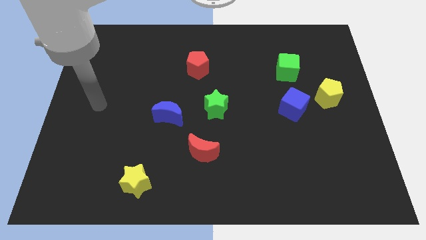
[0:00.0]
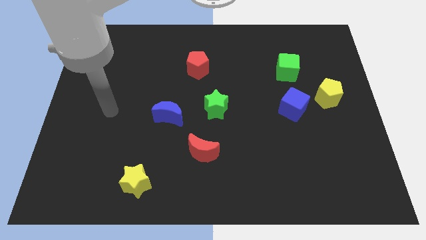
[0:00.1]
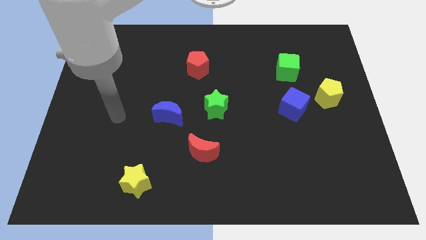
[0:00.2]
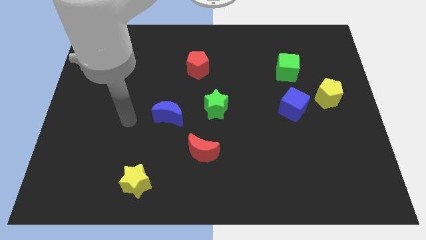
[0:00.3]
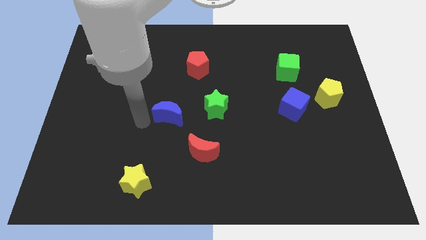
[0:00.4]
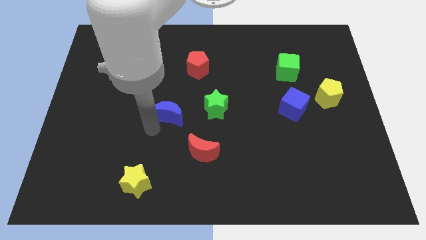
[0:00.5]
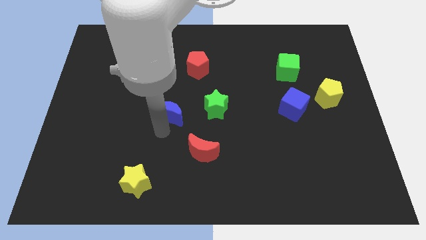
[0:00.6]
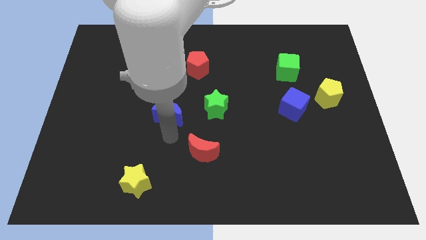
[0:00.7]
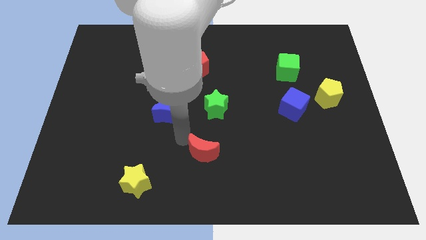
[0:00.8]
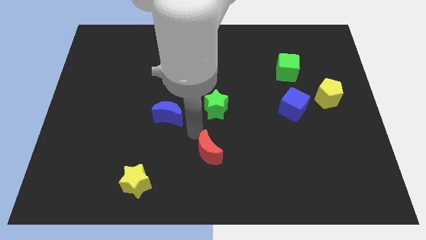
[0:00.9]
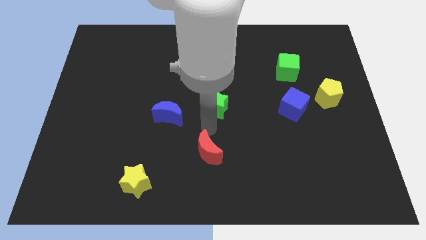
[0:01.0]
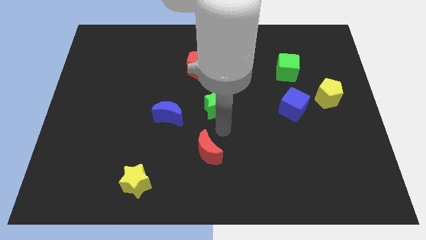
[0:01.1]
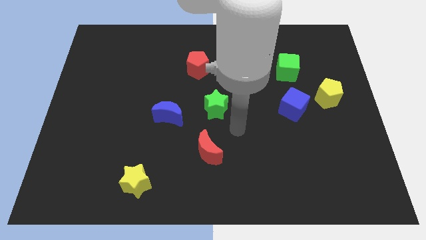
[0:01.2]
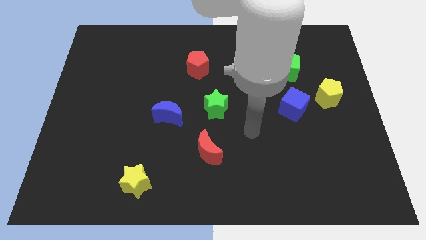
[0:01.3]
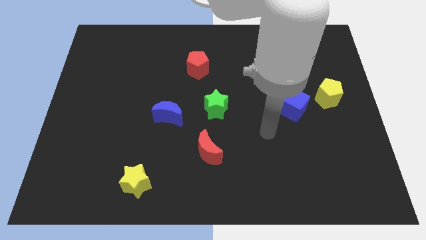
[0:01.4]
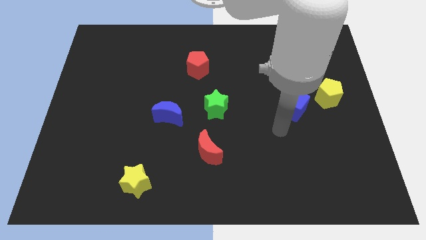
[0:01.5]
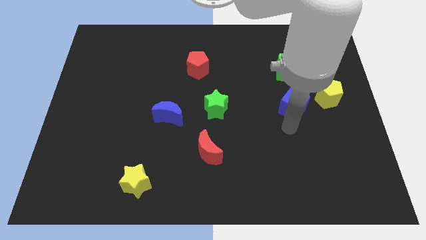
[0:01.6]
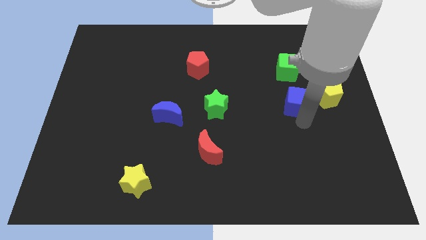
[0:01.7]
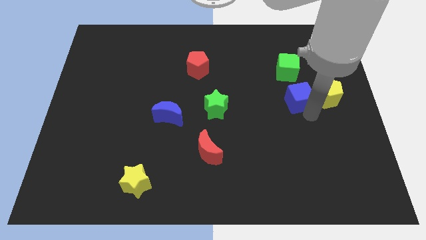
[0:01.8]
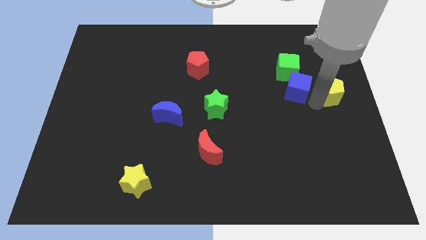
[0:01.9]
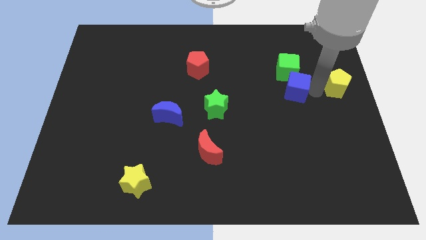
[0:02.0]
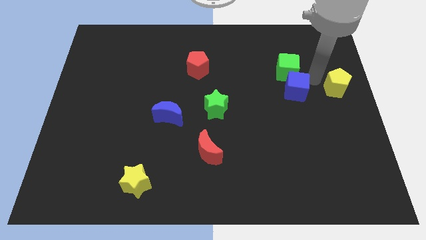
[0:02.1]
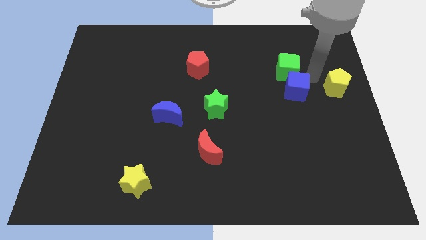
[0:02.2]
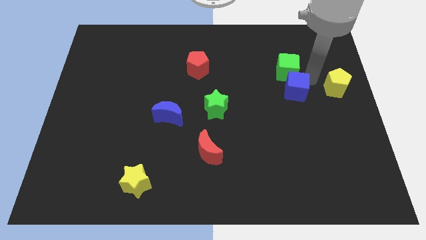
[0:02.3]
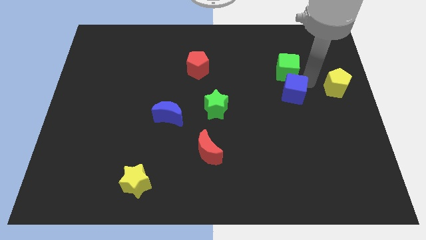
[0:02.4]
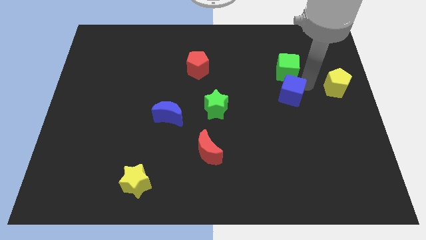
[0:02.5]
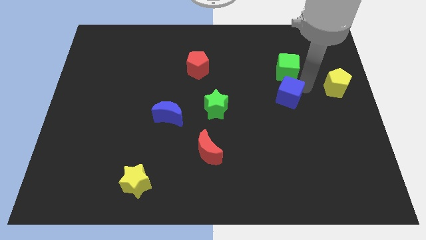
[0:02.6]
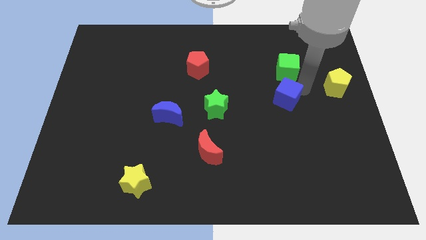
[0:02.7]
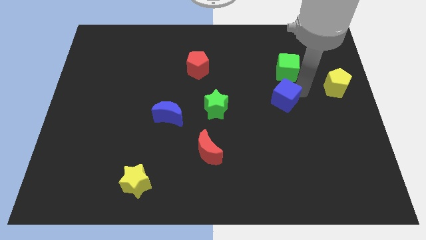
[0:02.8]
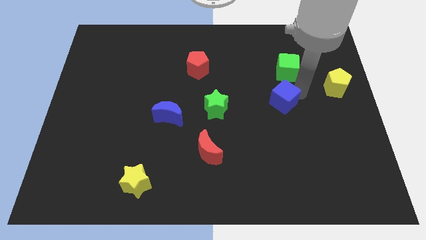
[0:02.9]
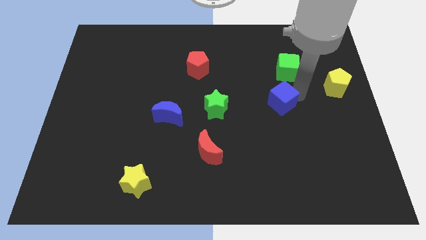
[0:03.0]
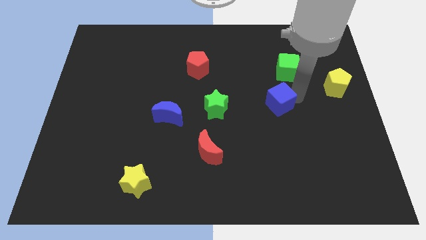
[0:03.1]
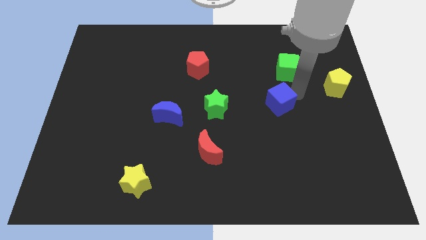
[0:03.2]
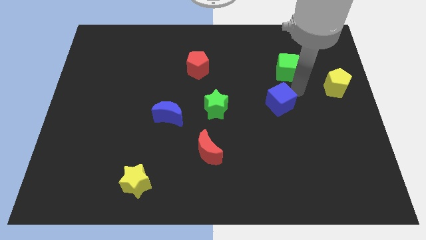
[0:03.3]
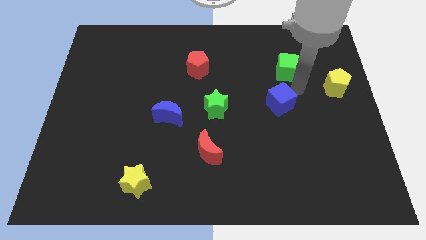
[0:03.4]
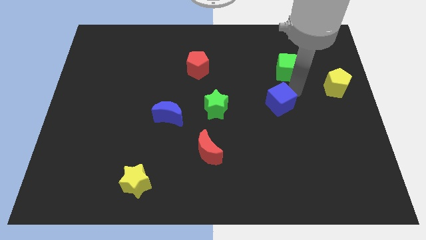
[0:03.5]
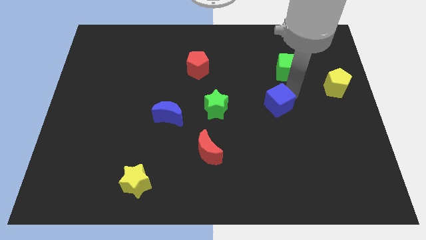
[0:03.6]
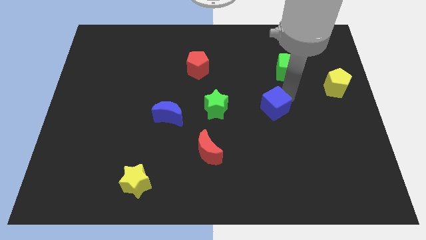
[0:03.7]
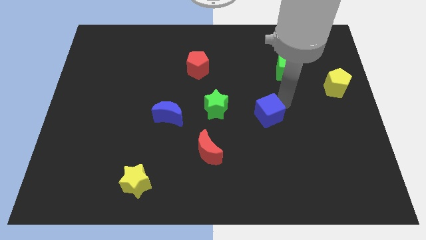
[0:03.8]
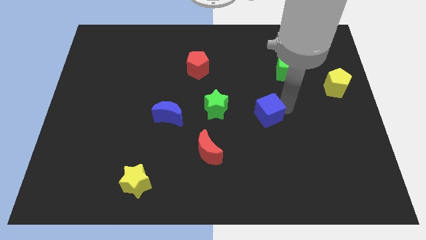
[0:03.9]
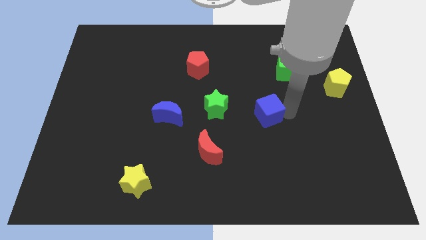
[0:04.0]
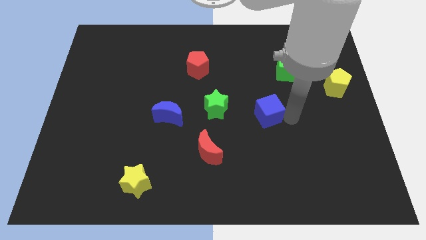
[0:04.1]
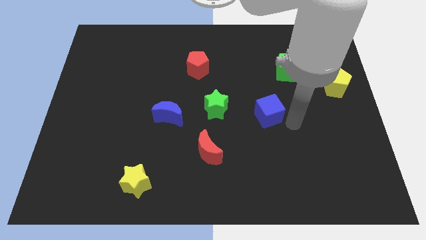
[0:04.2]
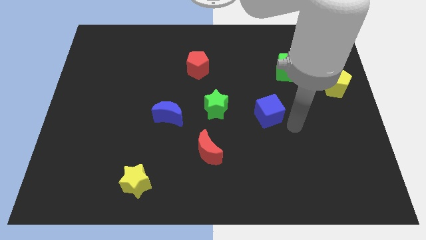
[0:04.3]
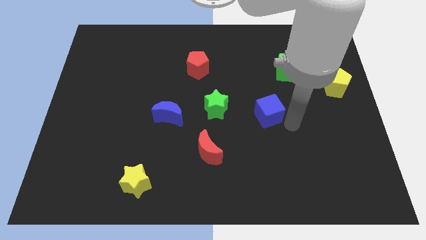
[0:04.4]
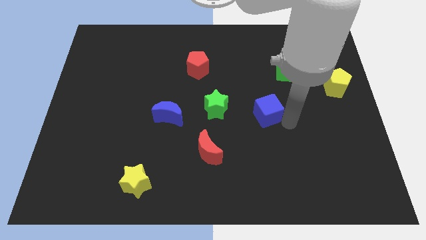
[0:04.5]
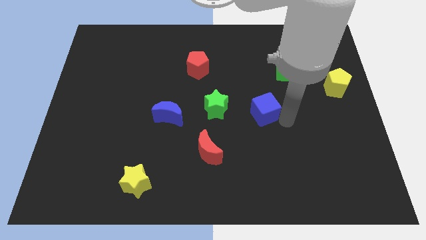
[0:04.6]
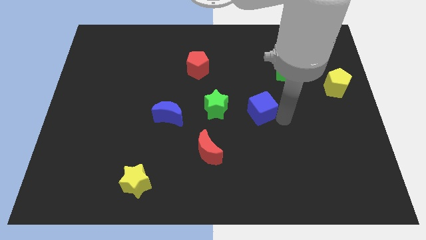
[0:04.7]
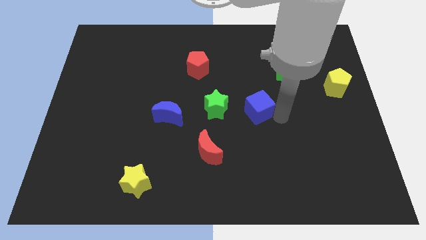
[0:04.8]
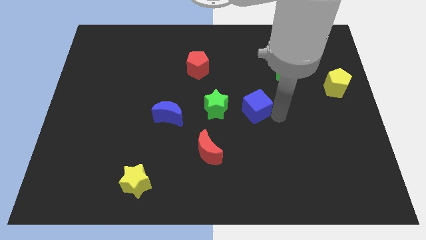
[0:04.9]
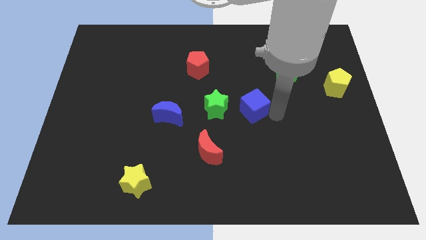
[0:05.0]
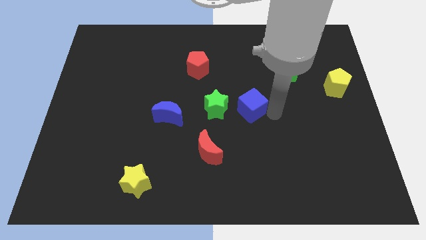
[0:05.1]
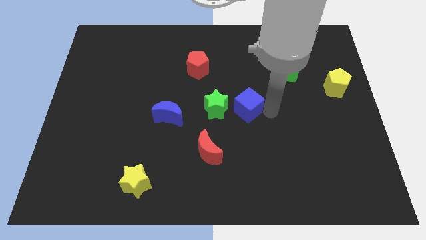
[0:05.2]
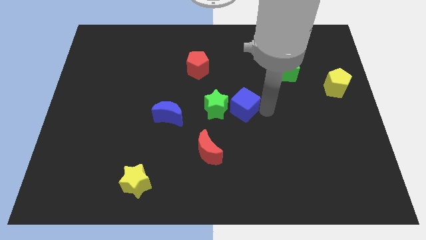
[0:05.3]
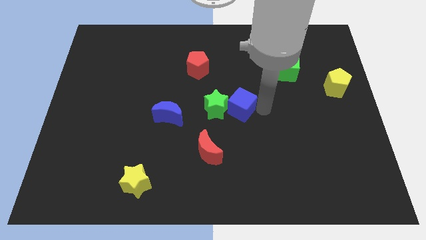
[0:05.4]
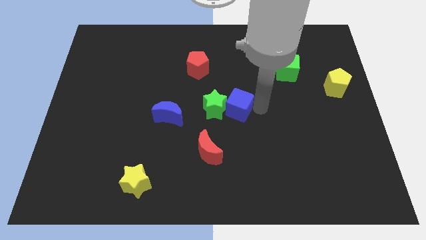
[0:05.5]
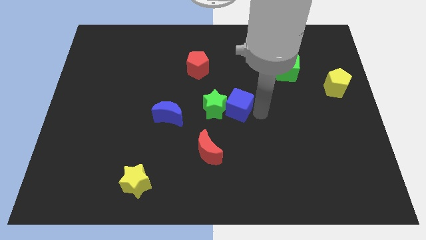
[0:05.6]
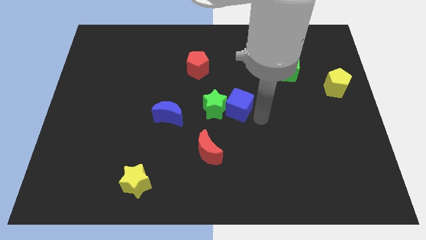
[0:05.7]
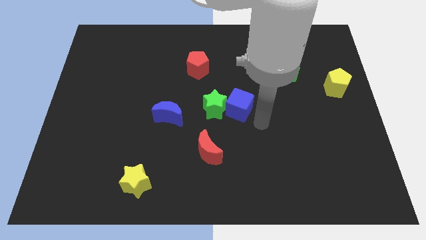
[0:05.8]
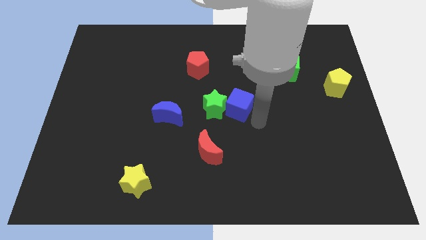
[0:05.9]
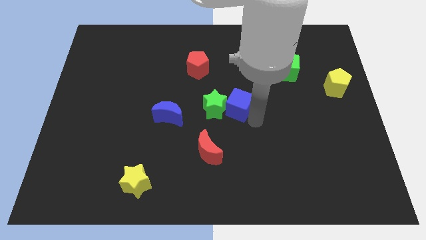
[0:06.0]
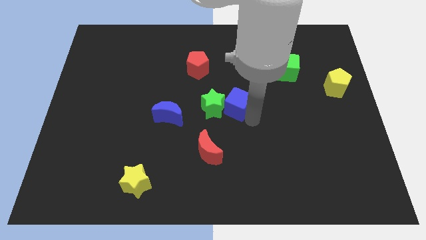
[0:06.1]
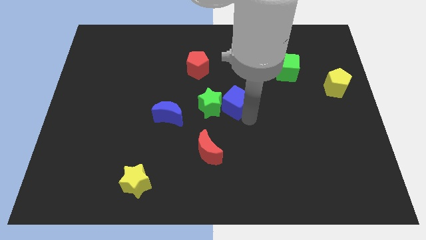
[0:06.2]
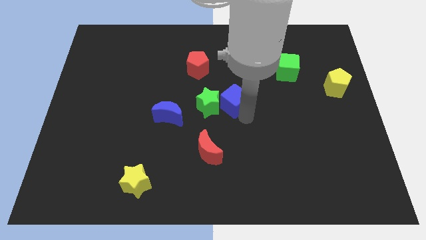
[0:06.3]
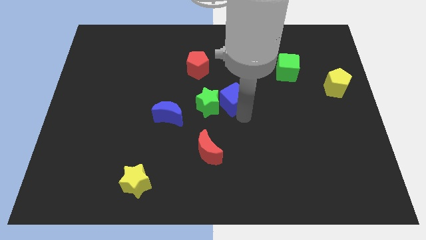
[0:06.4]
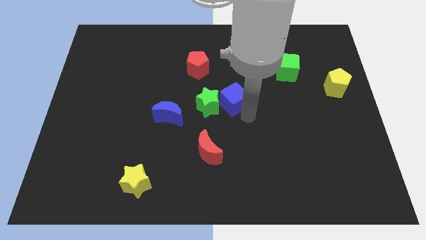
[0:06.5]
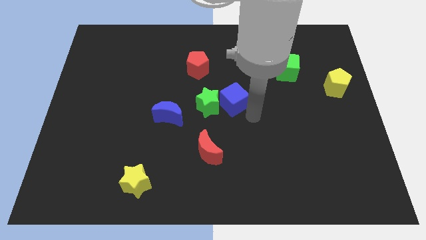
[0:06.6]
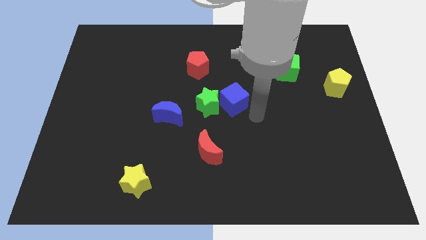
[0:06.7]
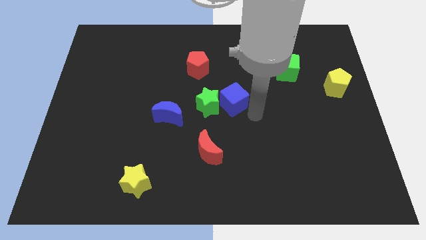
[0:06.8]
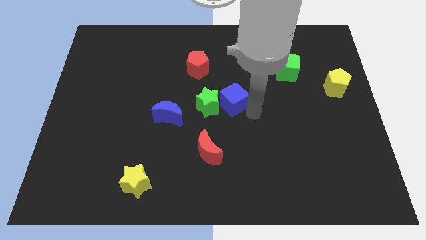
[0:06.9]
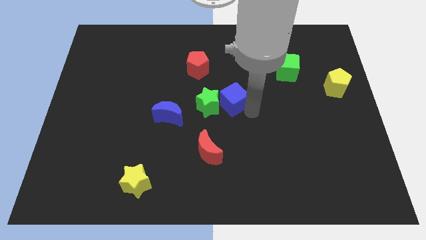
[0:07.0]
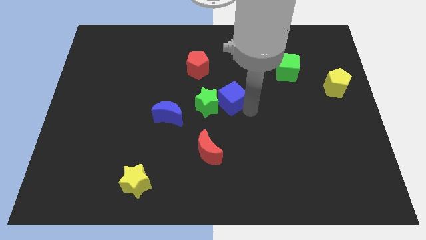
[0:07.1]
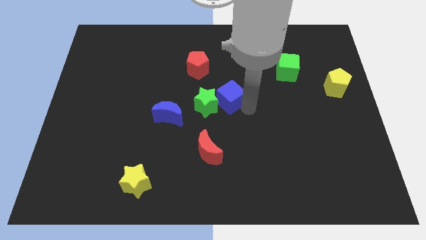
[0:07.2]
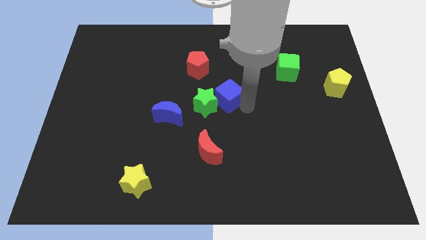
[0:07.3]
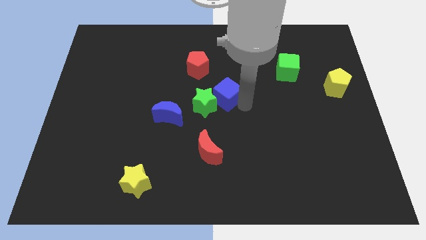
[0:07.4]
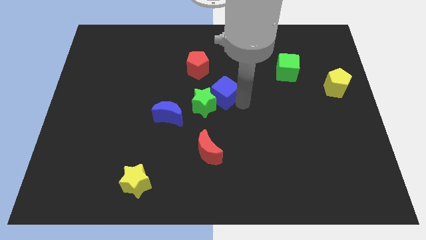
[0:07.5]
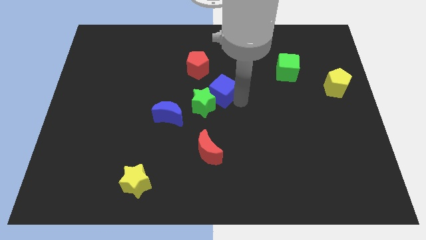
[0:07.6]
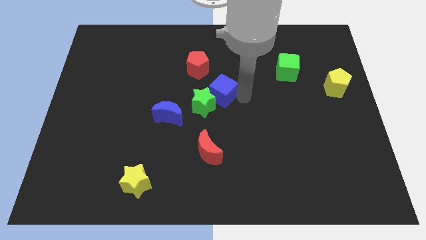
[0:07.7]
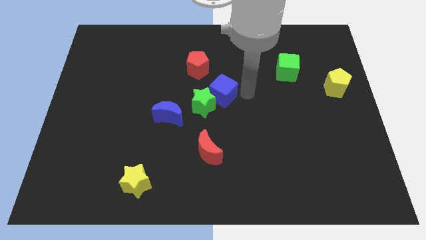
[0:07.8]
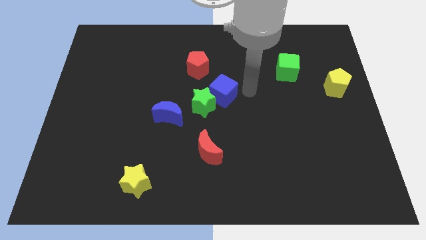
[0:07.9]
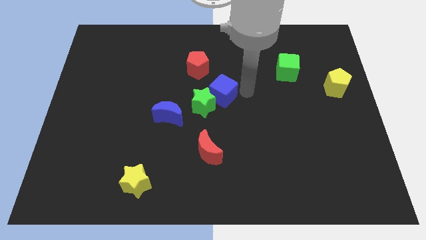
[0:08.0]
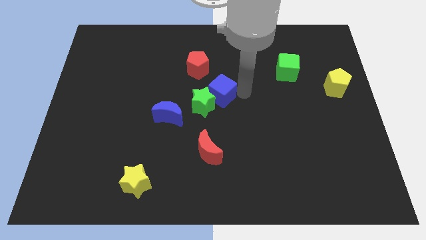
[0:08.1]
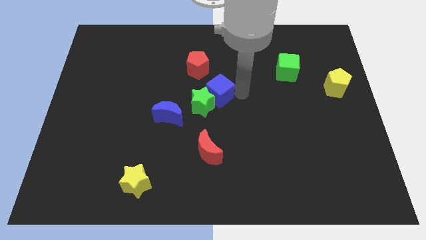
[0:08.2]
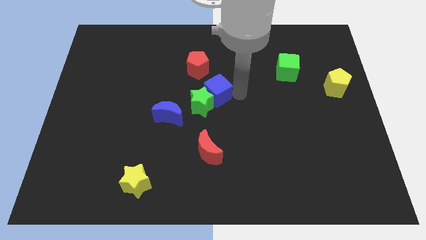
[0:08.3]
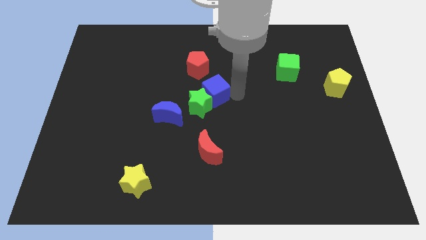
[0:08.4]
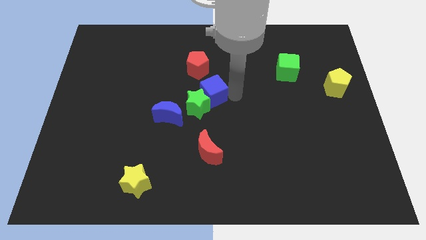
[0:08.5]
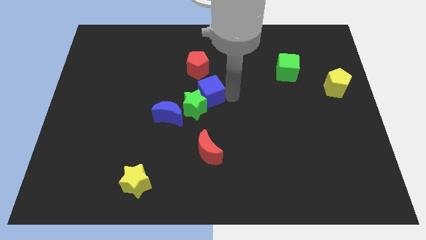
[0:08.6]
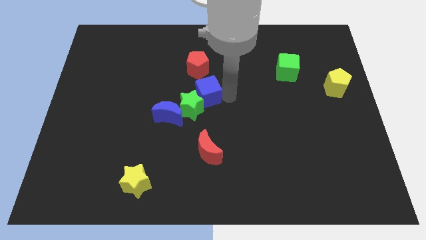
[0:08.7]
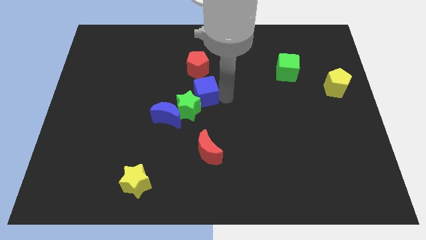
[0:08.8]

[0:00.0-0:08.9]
move the blue cube left
